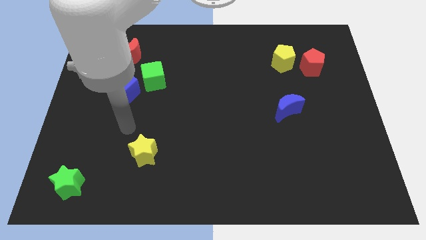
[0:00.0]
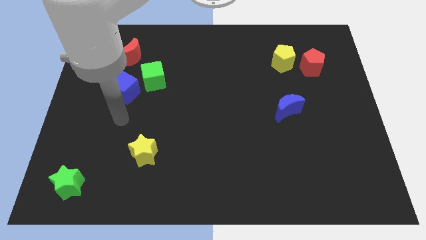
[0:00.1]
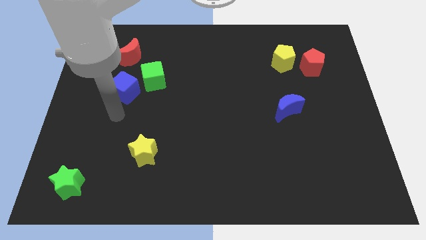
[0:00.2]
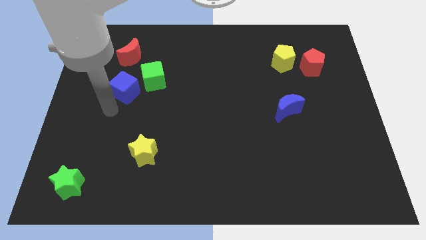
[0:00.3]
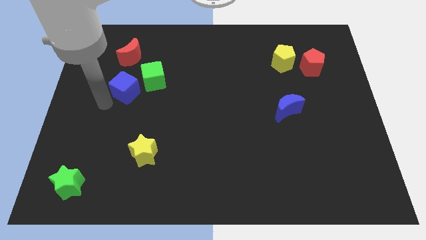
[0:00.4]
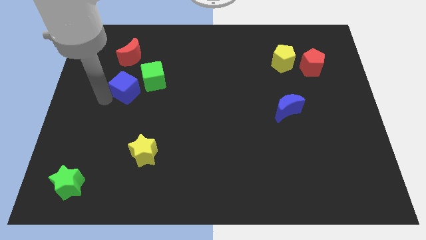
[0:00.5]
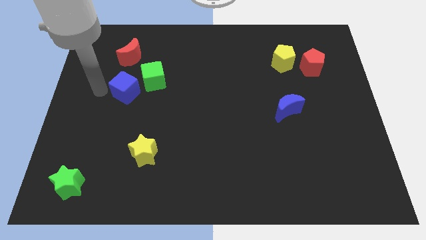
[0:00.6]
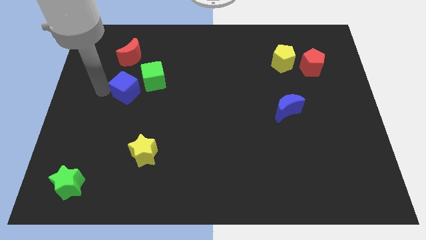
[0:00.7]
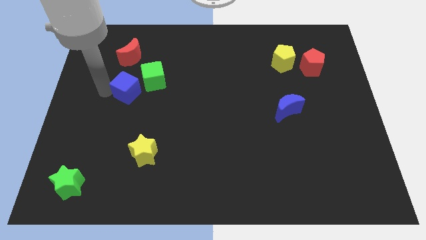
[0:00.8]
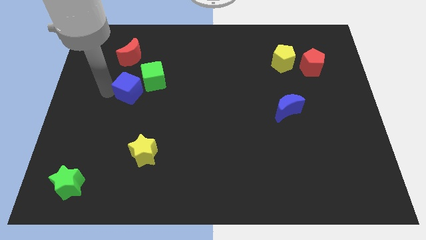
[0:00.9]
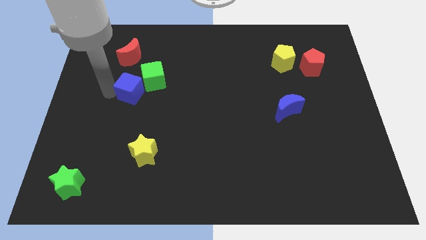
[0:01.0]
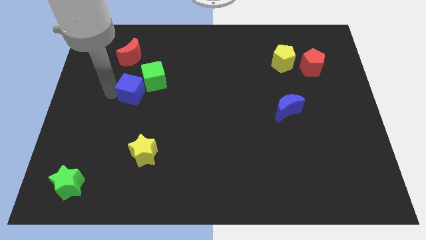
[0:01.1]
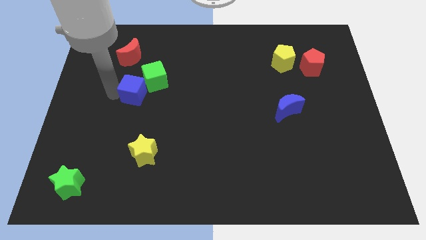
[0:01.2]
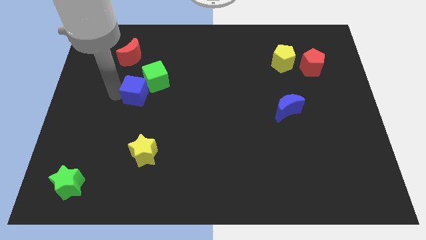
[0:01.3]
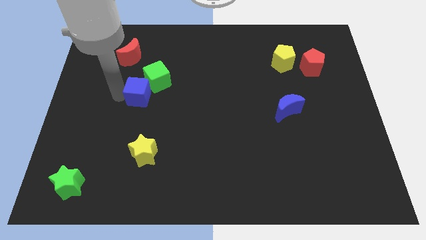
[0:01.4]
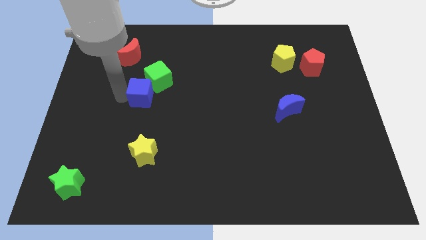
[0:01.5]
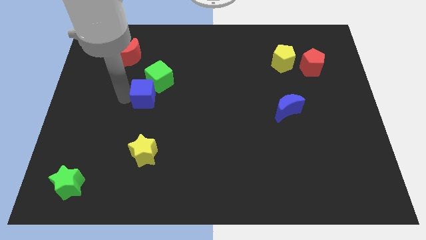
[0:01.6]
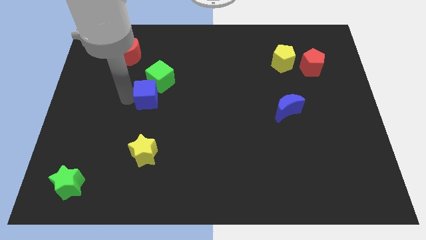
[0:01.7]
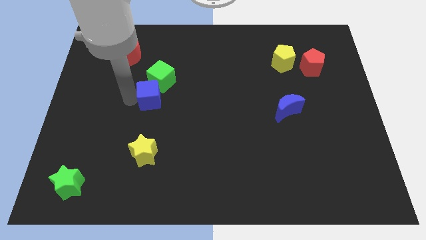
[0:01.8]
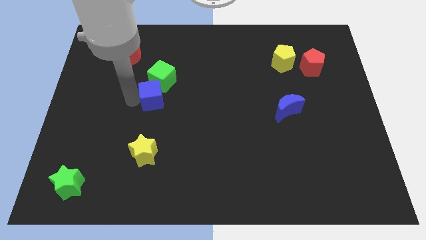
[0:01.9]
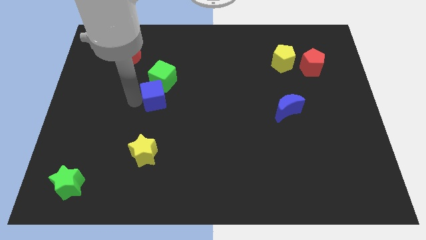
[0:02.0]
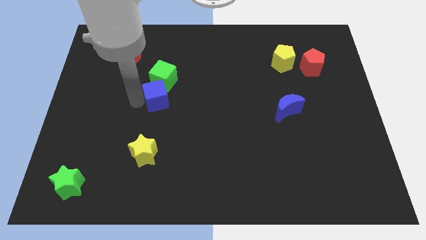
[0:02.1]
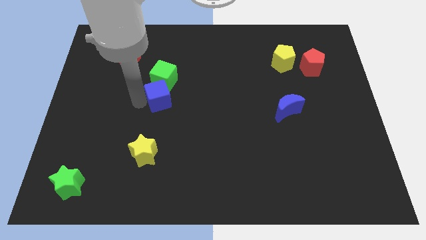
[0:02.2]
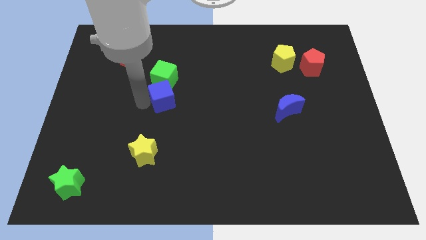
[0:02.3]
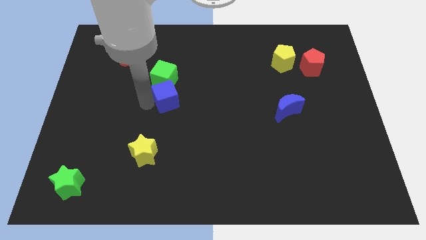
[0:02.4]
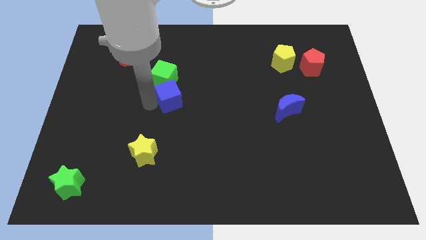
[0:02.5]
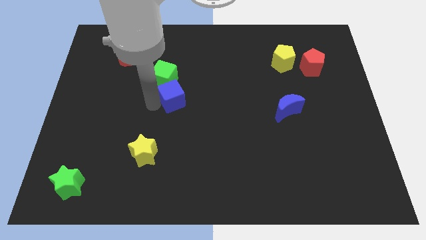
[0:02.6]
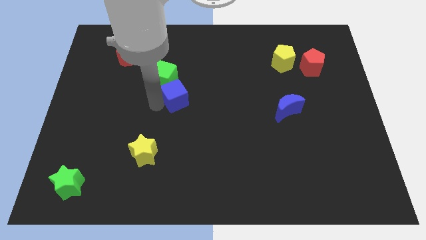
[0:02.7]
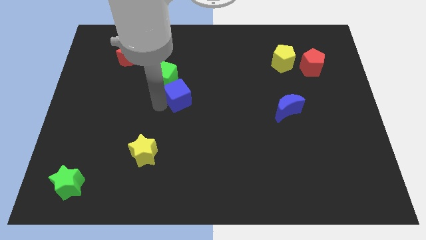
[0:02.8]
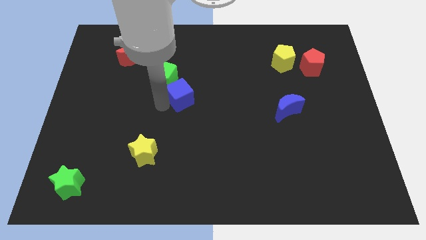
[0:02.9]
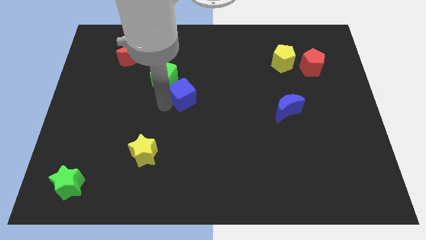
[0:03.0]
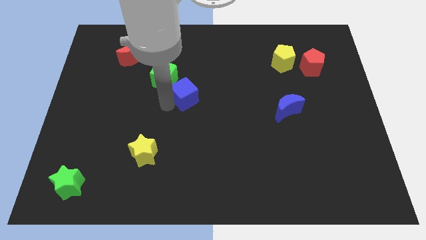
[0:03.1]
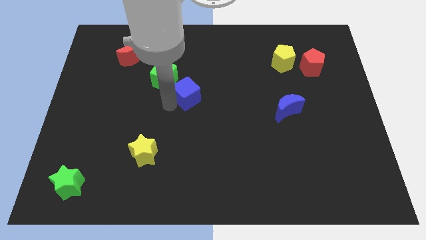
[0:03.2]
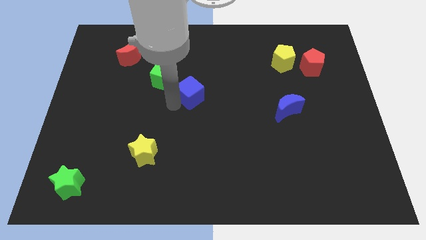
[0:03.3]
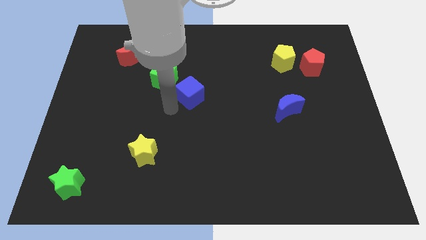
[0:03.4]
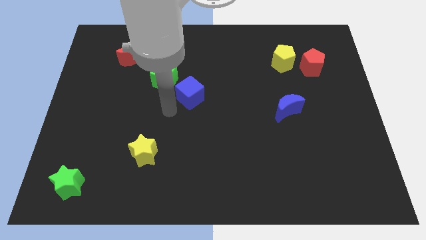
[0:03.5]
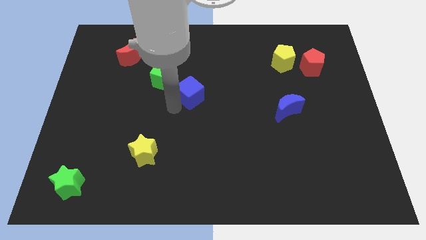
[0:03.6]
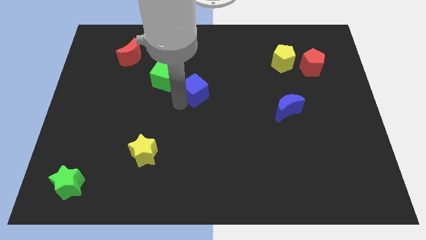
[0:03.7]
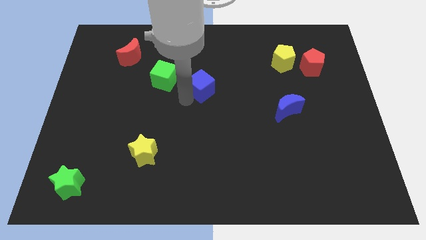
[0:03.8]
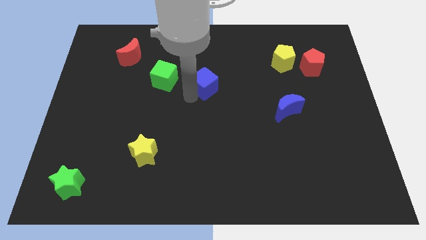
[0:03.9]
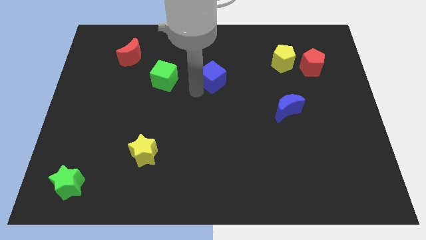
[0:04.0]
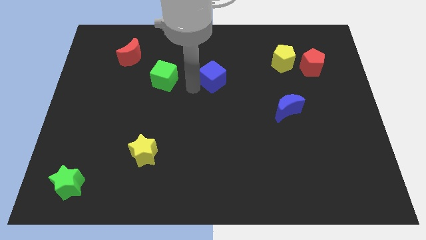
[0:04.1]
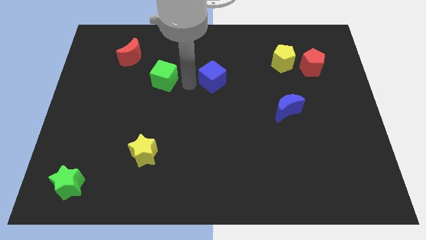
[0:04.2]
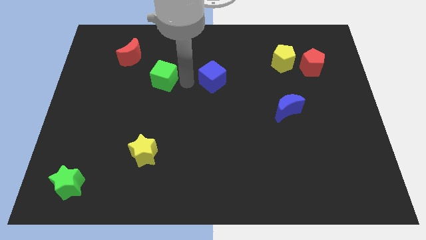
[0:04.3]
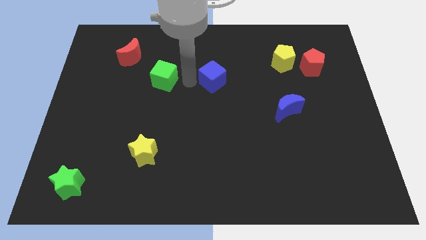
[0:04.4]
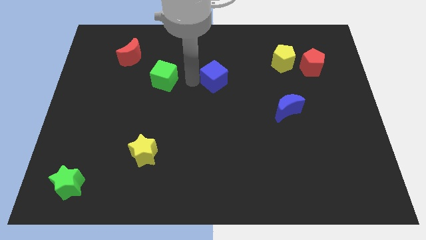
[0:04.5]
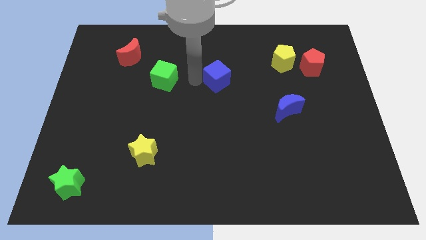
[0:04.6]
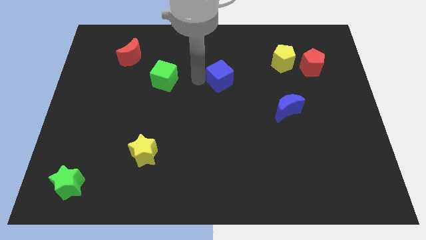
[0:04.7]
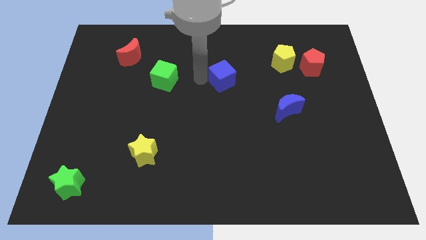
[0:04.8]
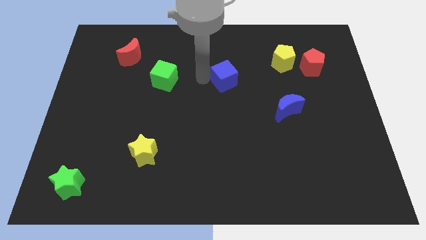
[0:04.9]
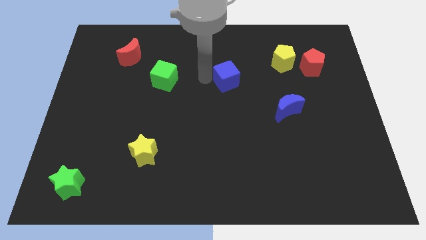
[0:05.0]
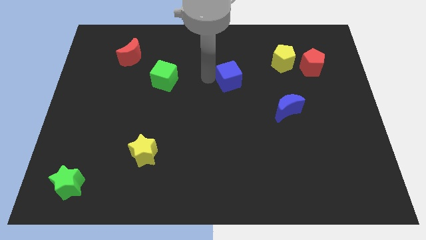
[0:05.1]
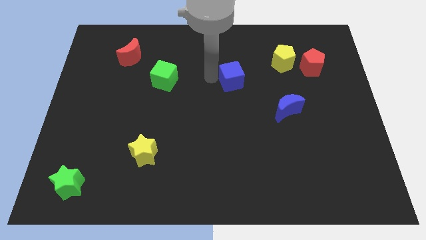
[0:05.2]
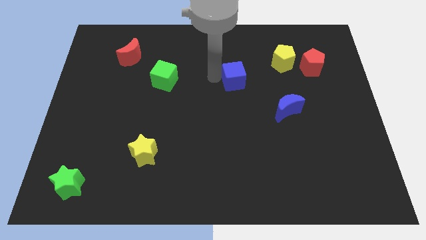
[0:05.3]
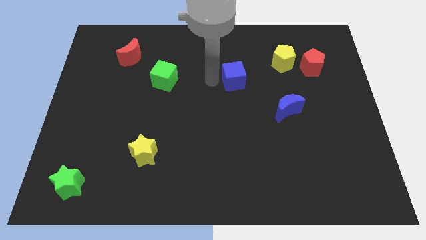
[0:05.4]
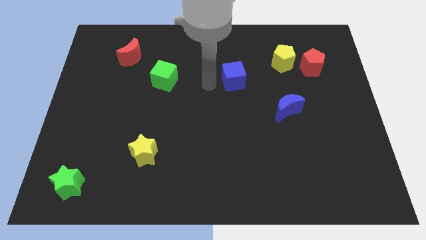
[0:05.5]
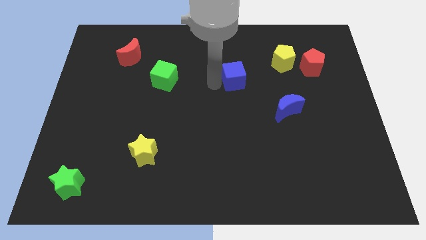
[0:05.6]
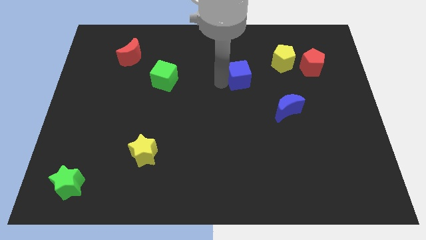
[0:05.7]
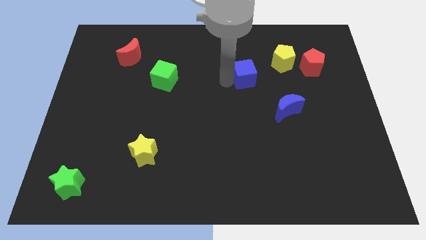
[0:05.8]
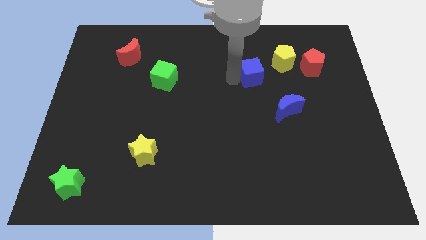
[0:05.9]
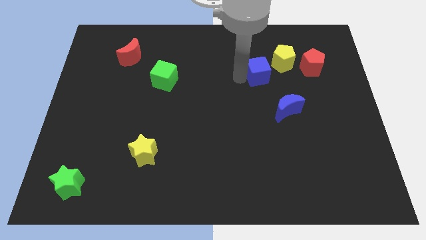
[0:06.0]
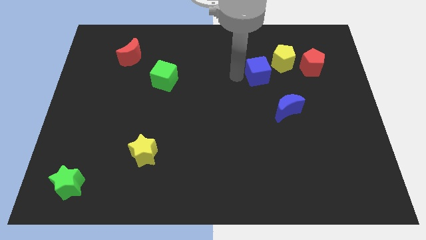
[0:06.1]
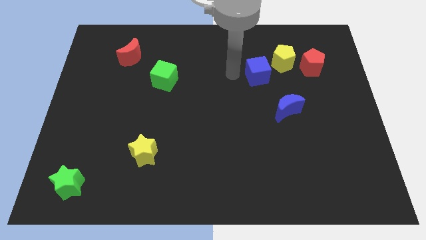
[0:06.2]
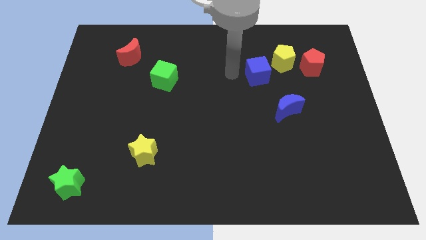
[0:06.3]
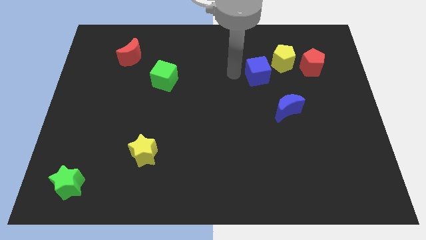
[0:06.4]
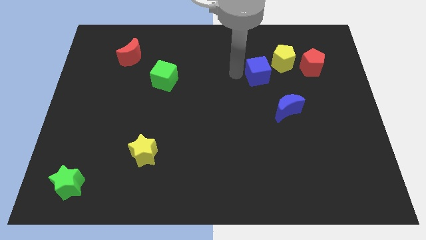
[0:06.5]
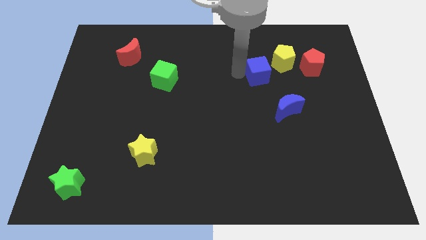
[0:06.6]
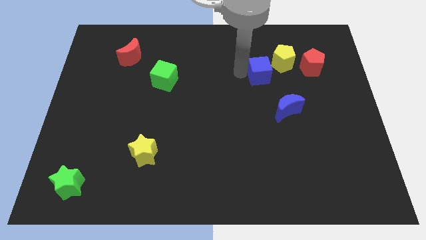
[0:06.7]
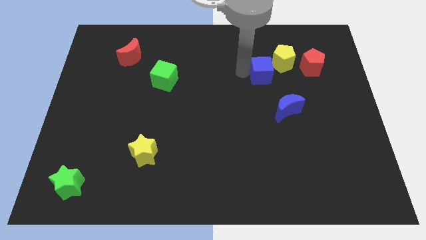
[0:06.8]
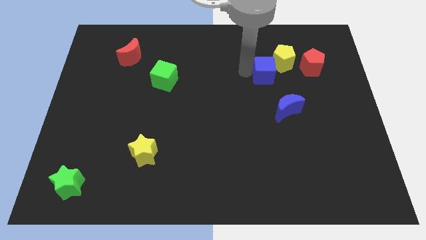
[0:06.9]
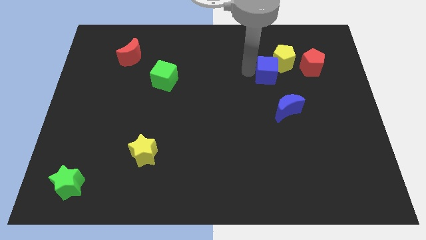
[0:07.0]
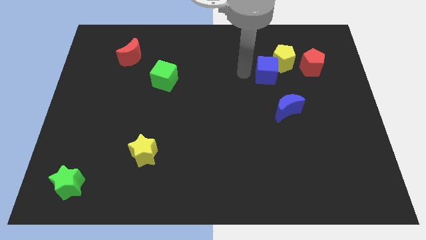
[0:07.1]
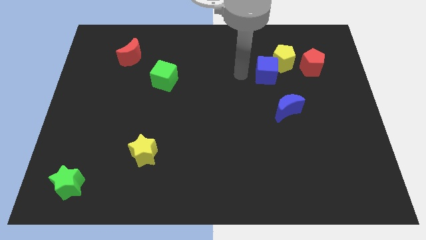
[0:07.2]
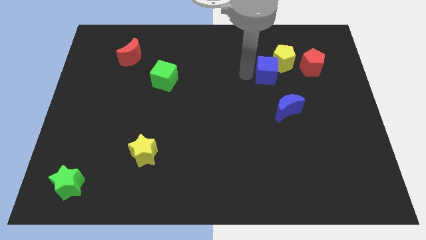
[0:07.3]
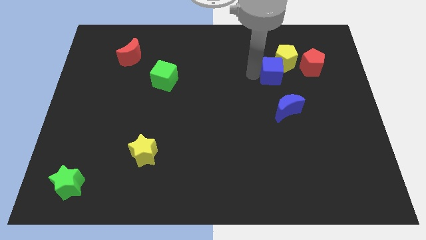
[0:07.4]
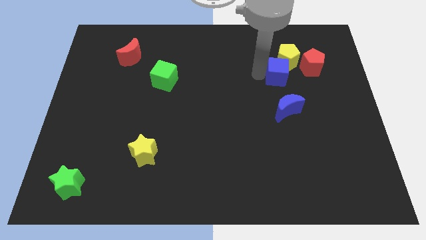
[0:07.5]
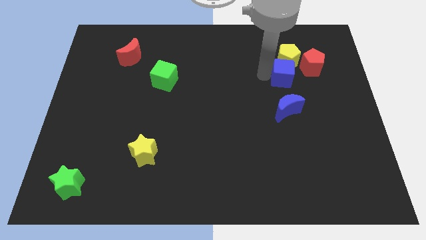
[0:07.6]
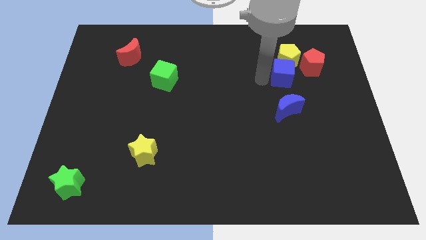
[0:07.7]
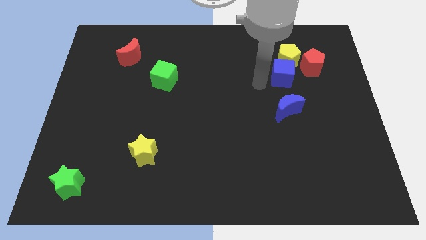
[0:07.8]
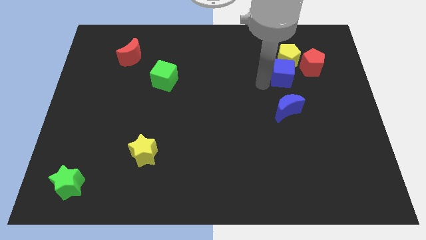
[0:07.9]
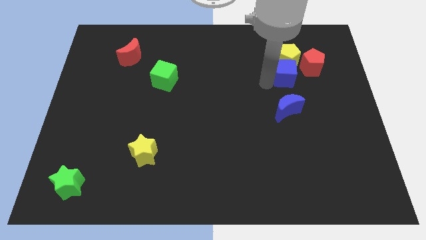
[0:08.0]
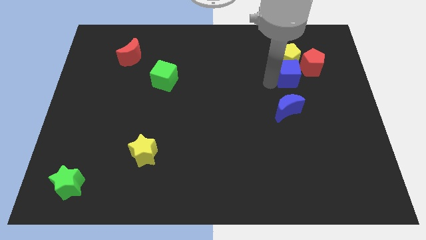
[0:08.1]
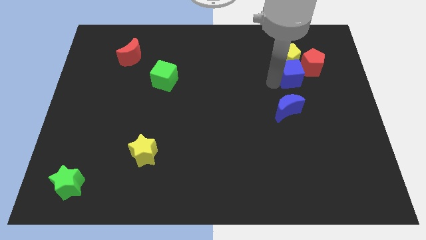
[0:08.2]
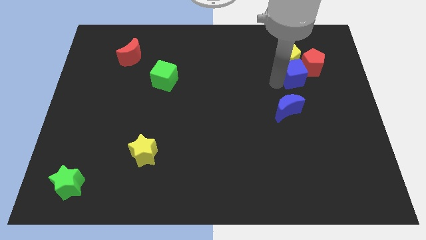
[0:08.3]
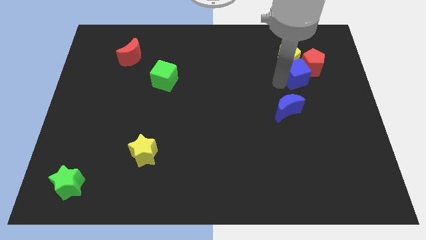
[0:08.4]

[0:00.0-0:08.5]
move the blue cube towards the red pentagon
